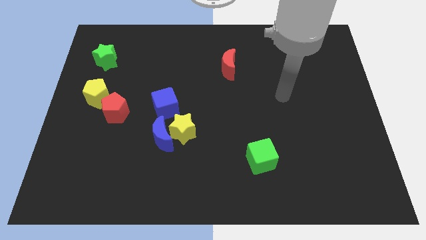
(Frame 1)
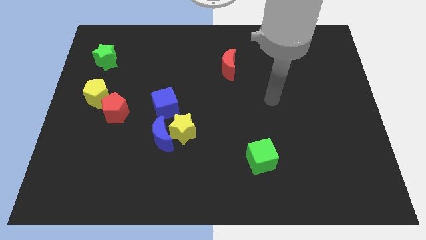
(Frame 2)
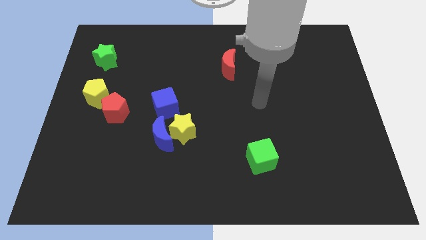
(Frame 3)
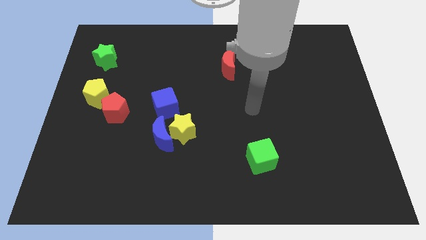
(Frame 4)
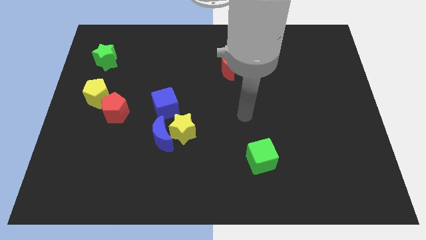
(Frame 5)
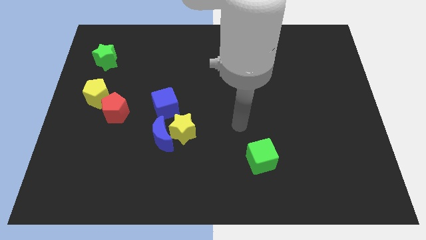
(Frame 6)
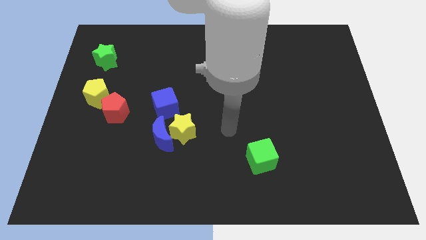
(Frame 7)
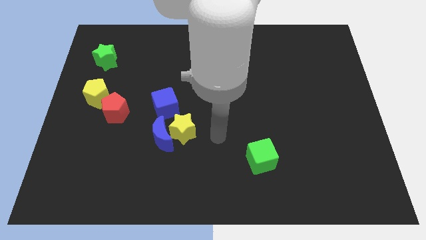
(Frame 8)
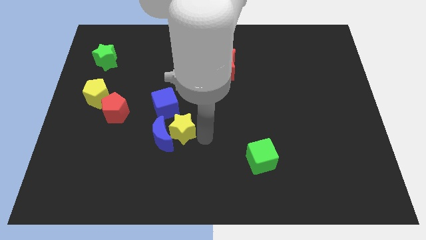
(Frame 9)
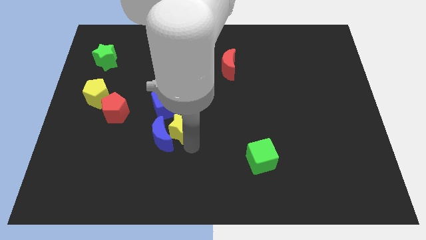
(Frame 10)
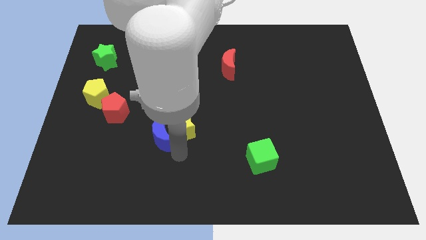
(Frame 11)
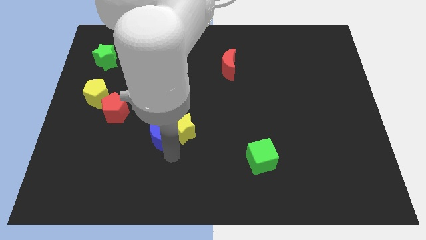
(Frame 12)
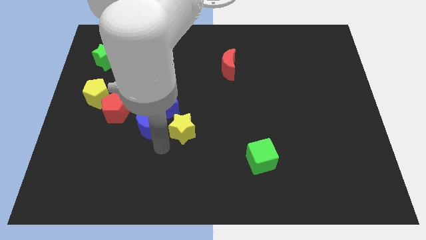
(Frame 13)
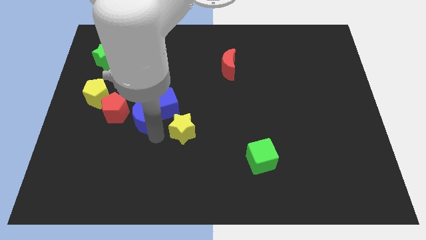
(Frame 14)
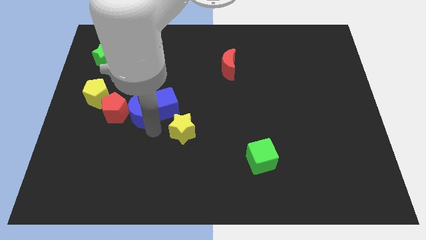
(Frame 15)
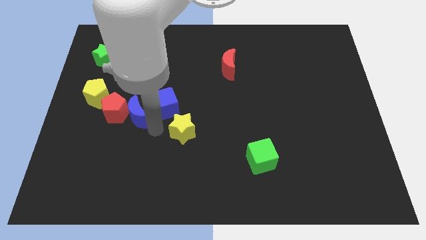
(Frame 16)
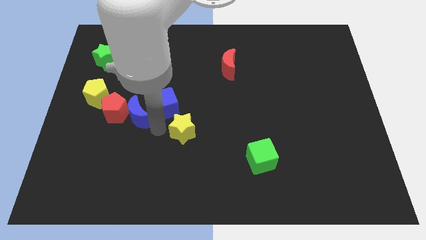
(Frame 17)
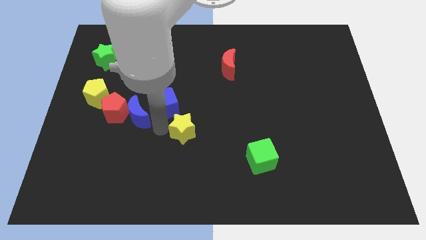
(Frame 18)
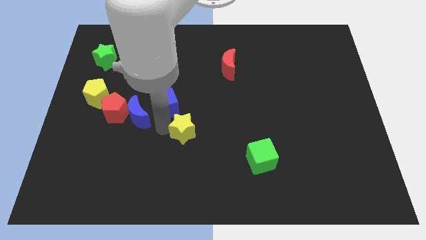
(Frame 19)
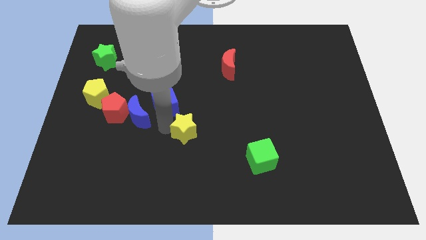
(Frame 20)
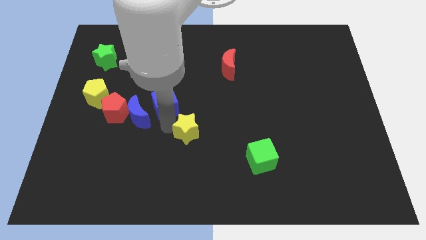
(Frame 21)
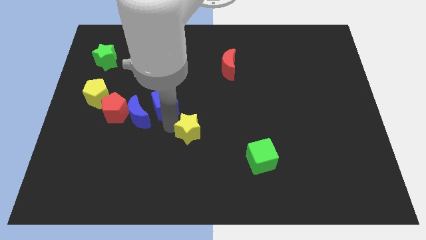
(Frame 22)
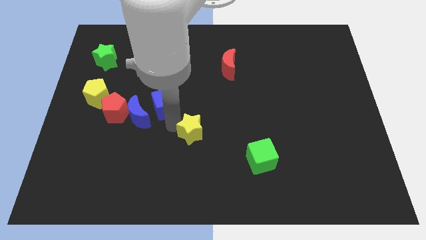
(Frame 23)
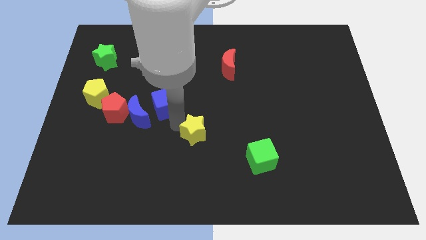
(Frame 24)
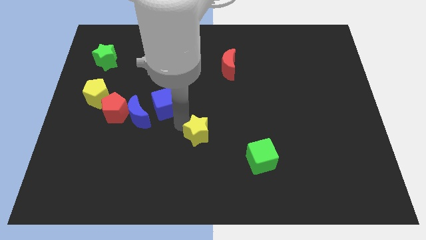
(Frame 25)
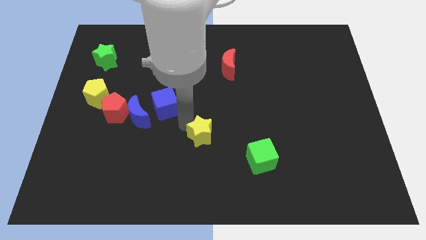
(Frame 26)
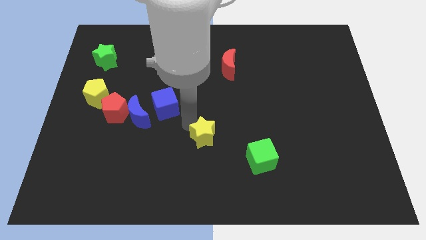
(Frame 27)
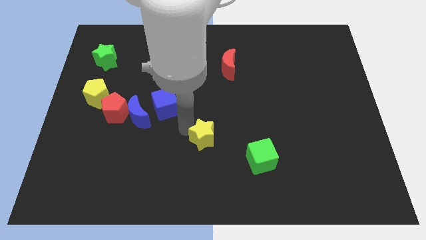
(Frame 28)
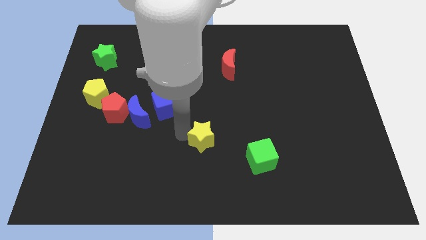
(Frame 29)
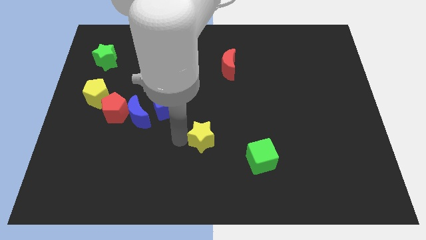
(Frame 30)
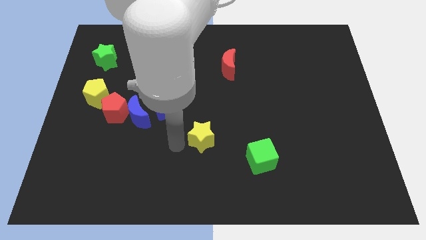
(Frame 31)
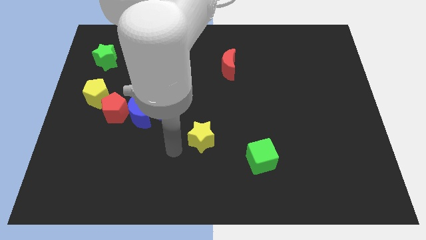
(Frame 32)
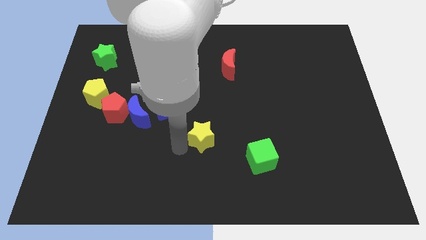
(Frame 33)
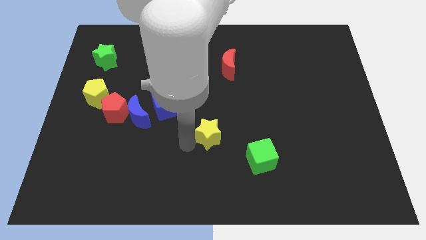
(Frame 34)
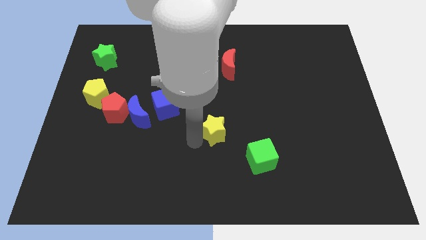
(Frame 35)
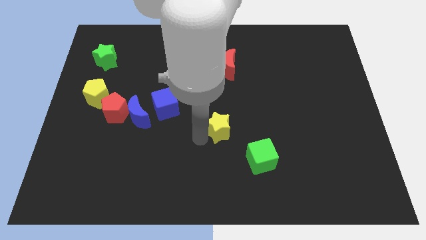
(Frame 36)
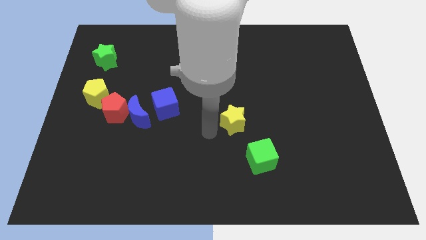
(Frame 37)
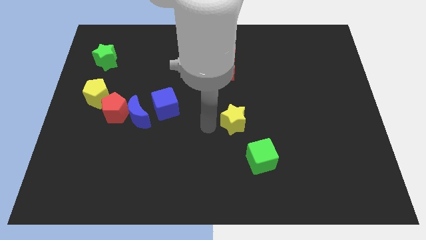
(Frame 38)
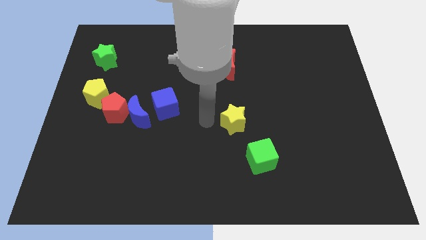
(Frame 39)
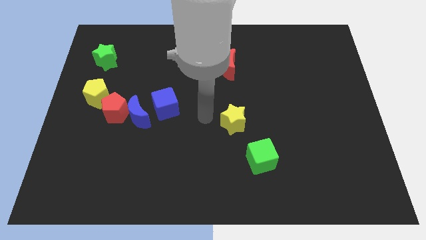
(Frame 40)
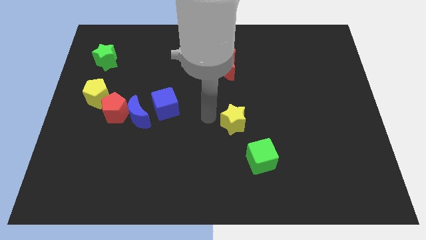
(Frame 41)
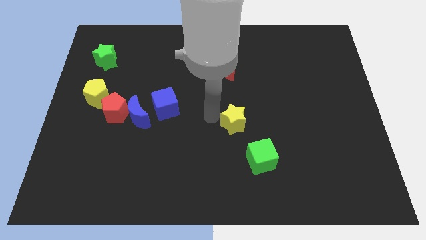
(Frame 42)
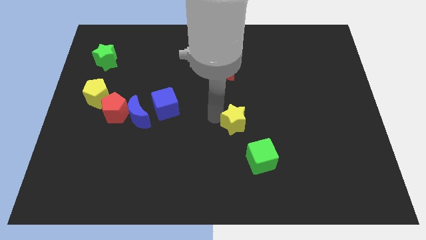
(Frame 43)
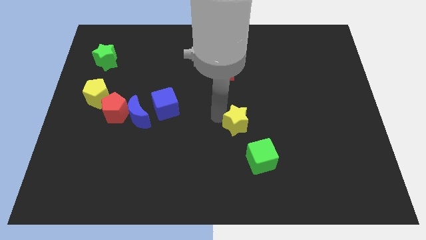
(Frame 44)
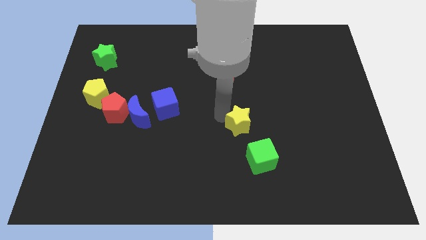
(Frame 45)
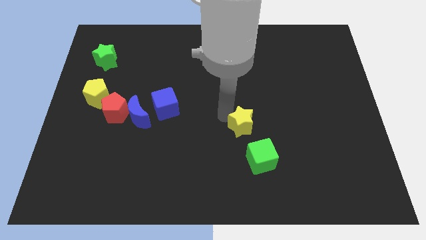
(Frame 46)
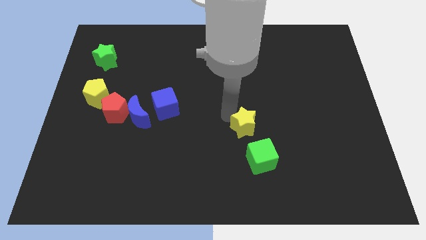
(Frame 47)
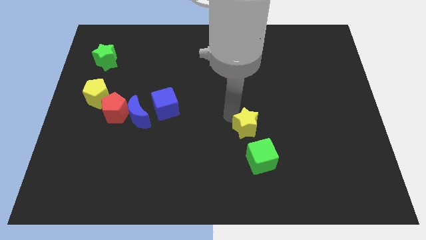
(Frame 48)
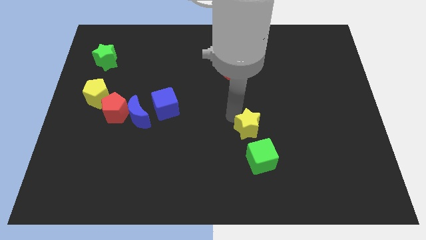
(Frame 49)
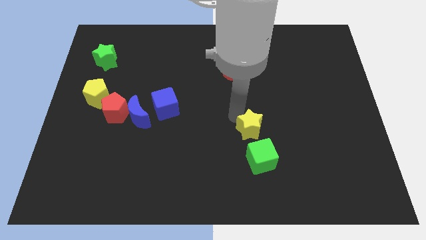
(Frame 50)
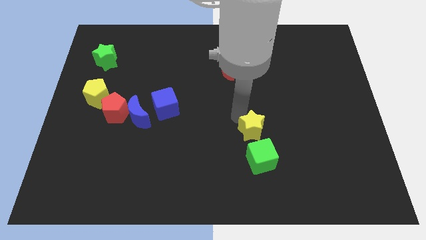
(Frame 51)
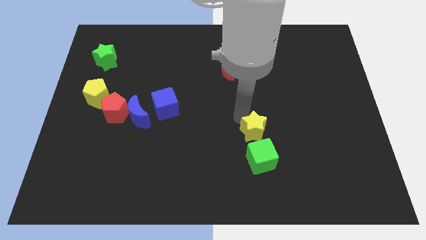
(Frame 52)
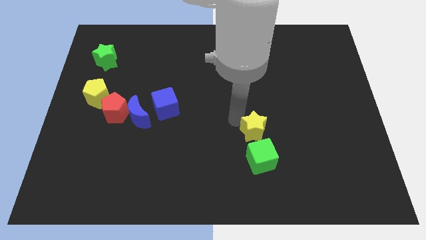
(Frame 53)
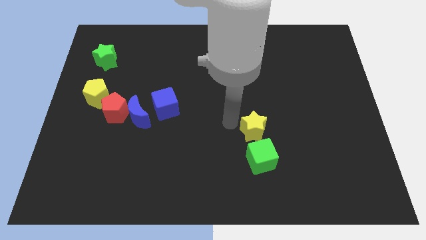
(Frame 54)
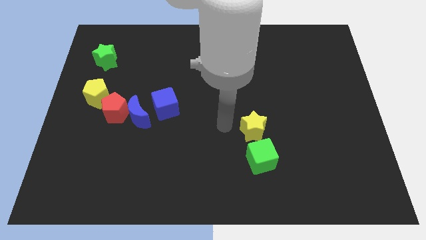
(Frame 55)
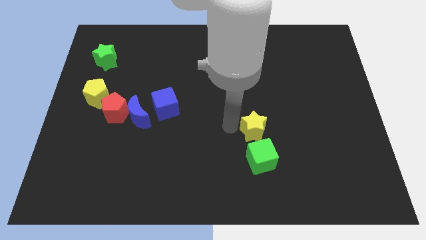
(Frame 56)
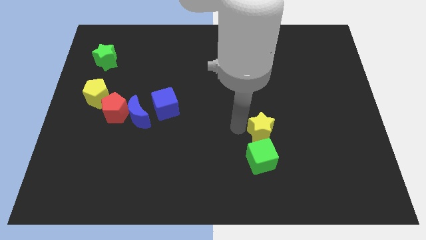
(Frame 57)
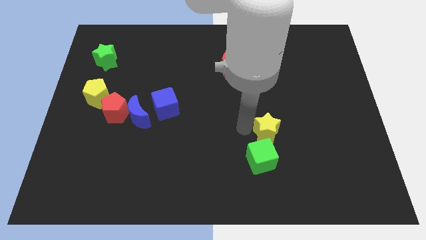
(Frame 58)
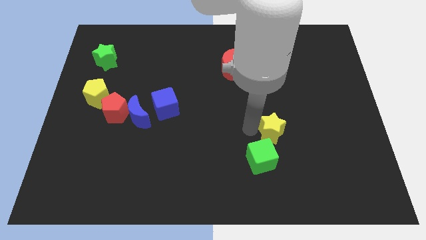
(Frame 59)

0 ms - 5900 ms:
move the yellow star to the right

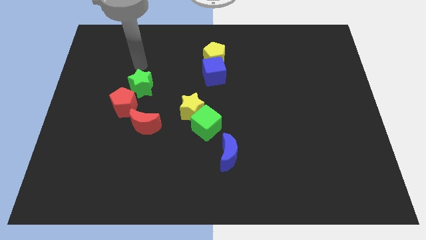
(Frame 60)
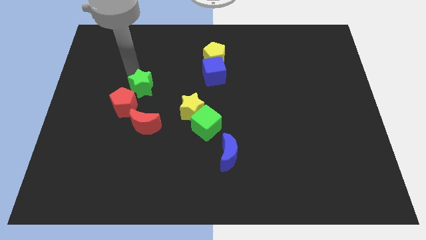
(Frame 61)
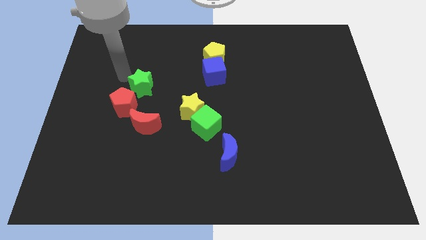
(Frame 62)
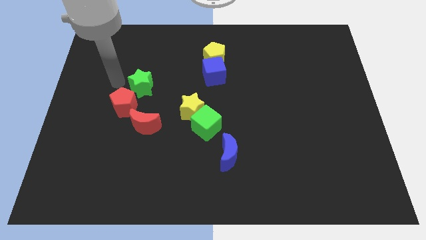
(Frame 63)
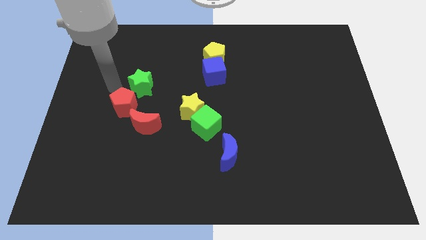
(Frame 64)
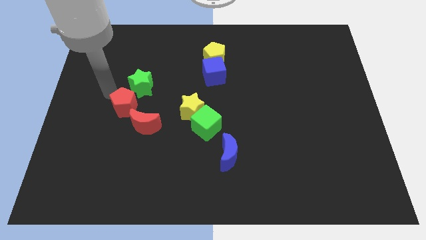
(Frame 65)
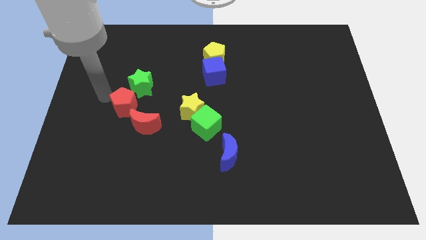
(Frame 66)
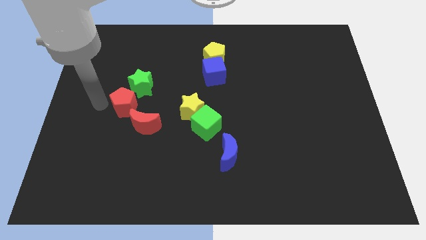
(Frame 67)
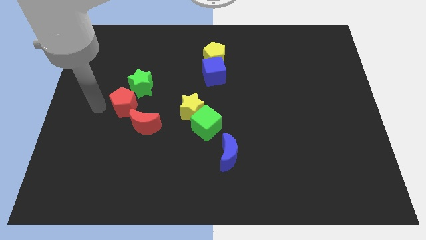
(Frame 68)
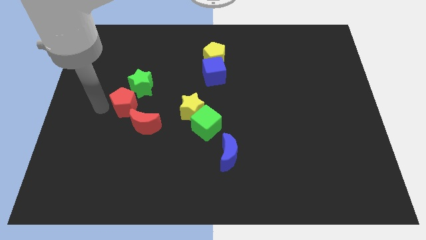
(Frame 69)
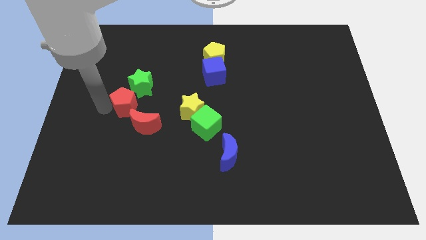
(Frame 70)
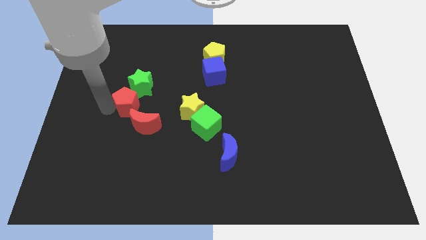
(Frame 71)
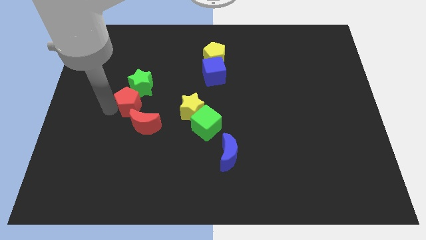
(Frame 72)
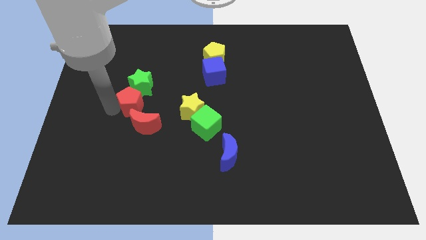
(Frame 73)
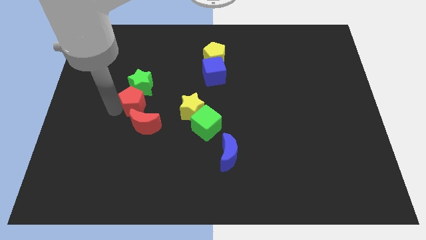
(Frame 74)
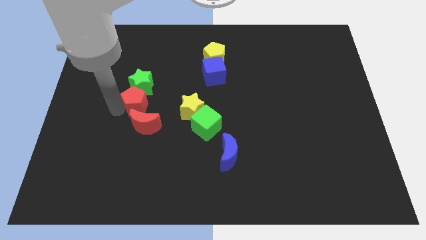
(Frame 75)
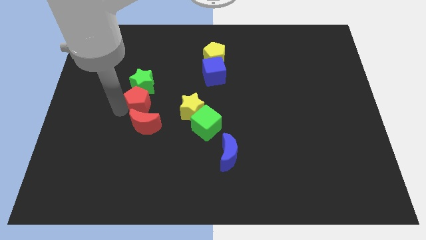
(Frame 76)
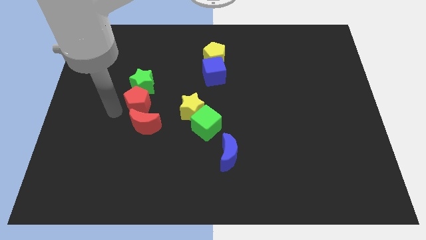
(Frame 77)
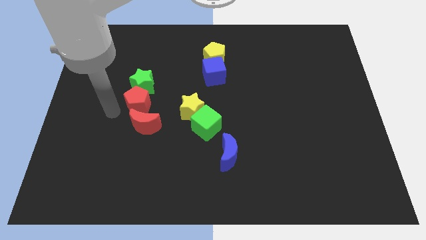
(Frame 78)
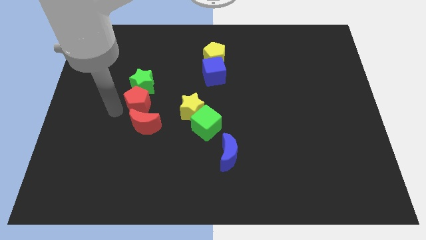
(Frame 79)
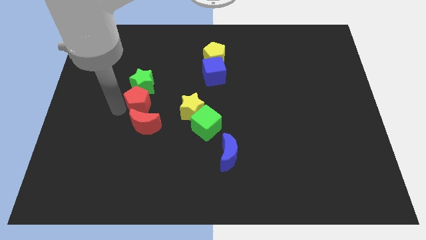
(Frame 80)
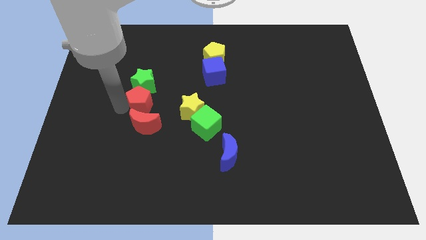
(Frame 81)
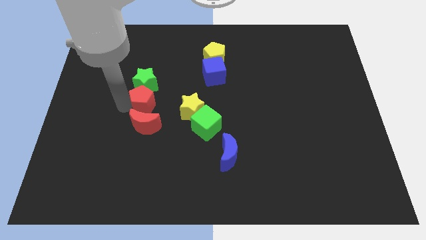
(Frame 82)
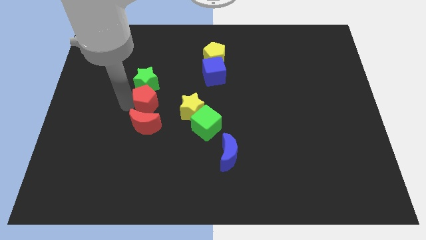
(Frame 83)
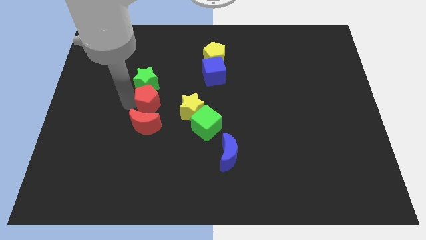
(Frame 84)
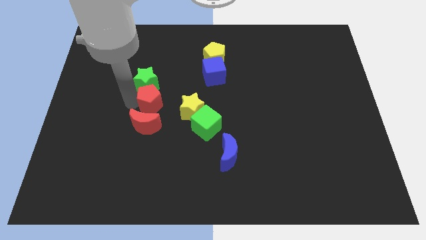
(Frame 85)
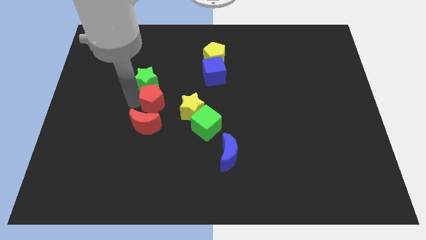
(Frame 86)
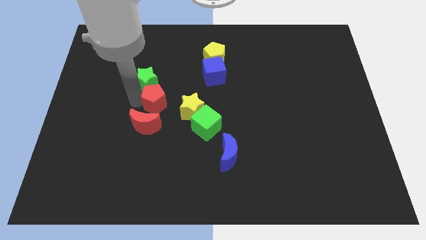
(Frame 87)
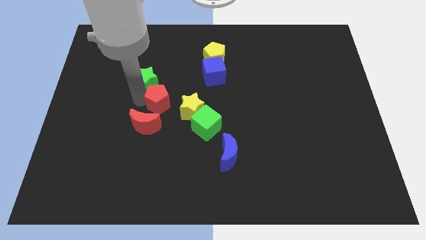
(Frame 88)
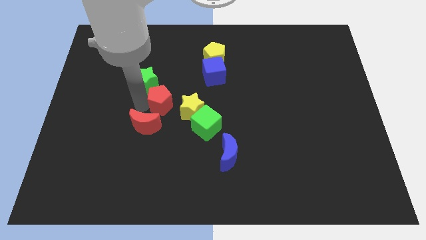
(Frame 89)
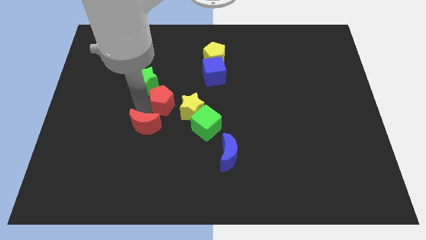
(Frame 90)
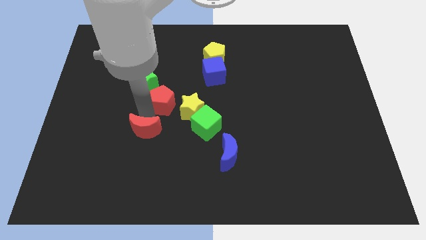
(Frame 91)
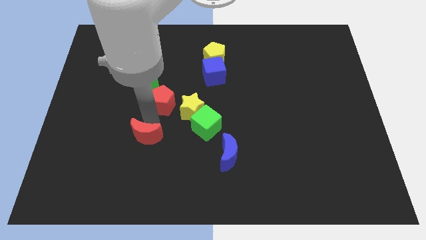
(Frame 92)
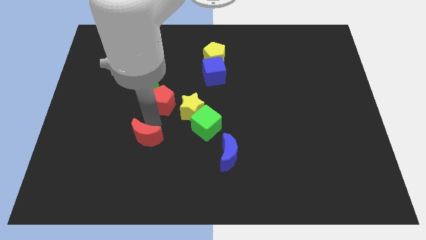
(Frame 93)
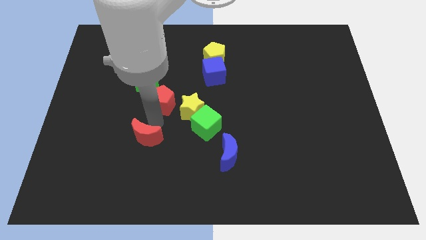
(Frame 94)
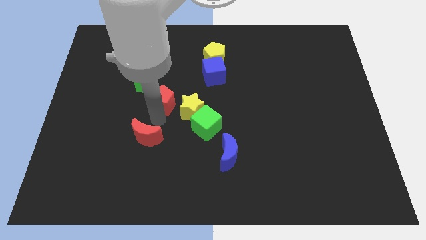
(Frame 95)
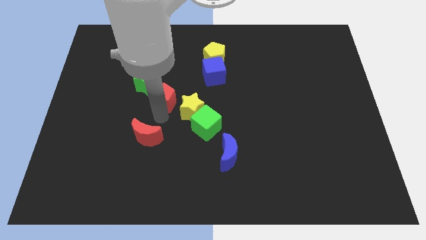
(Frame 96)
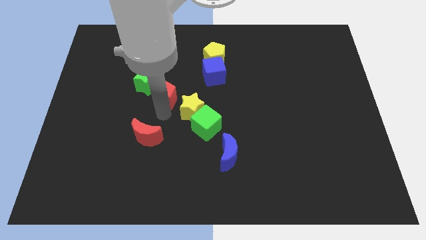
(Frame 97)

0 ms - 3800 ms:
move the red pentagon a little bit up and to the right diagonally
